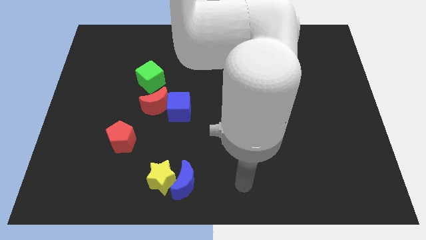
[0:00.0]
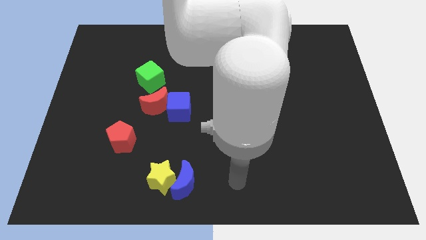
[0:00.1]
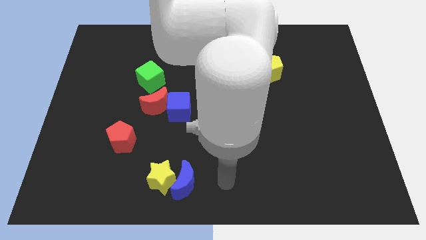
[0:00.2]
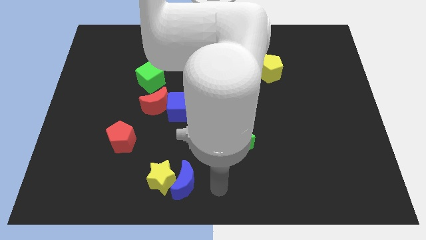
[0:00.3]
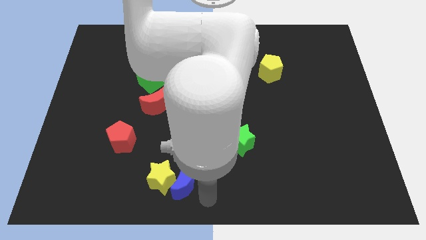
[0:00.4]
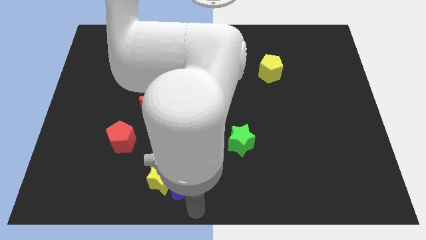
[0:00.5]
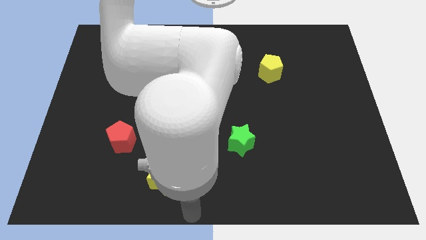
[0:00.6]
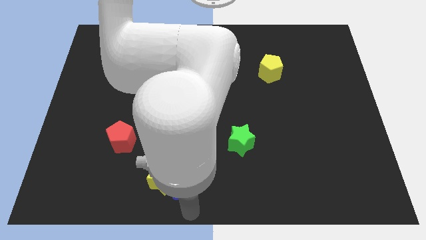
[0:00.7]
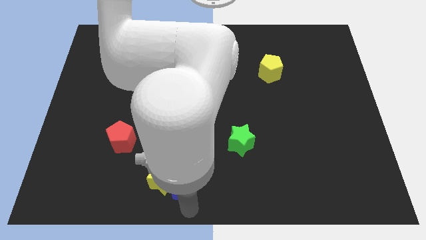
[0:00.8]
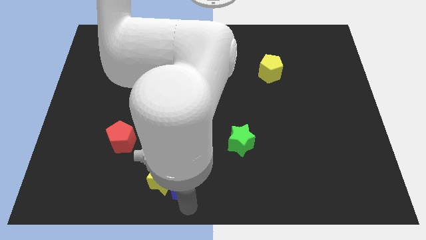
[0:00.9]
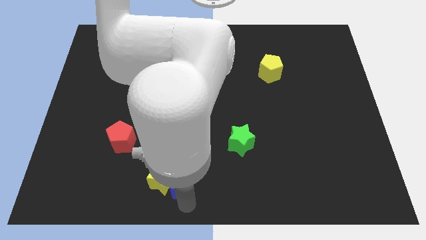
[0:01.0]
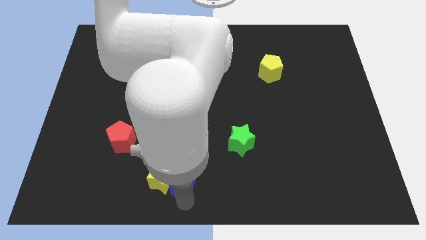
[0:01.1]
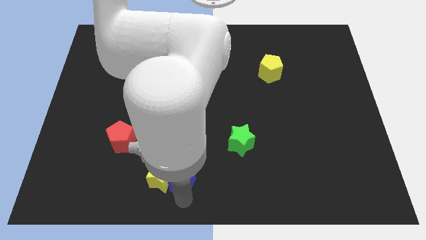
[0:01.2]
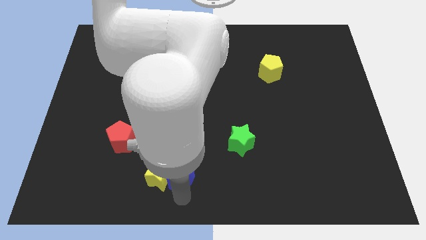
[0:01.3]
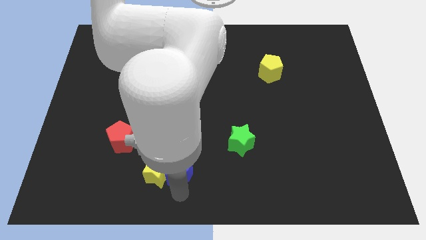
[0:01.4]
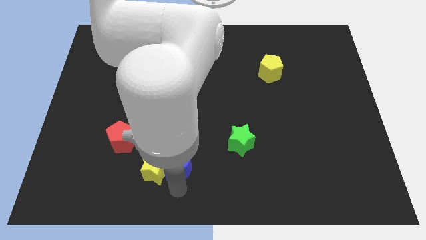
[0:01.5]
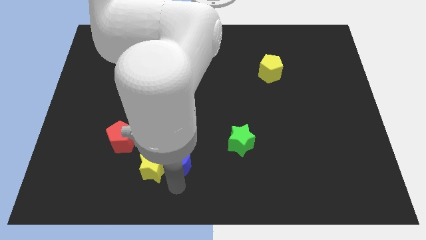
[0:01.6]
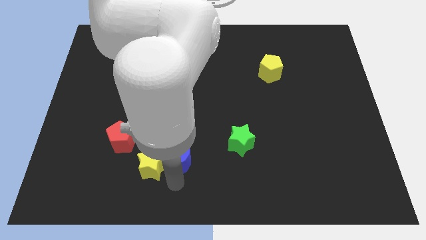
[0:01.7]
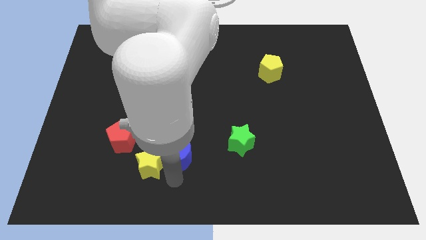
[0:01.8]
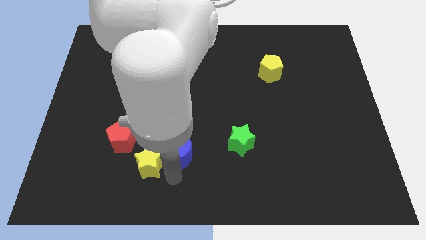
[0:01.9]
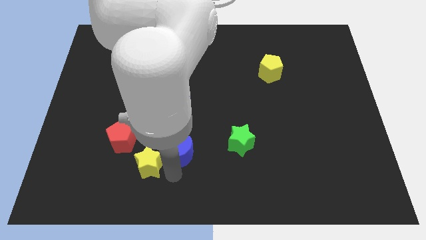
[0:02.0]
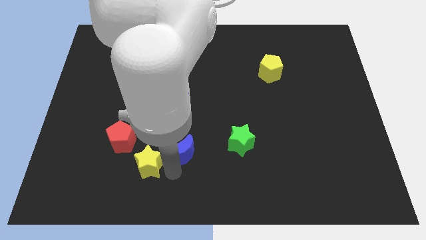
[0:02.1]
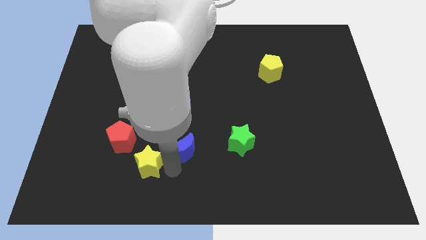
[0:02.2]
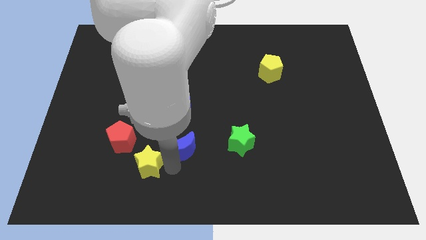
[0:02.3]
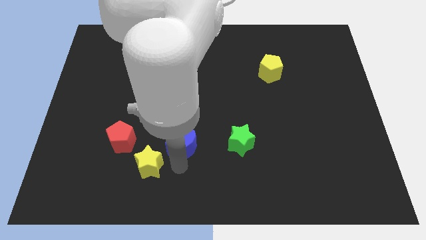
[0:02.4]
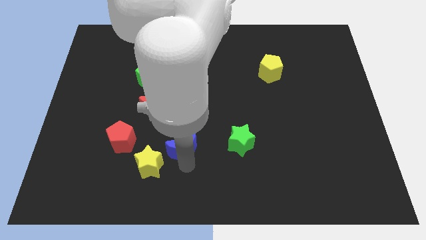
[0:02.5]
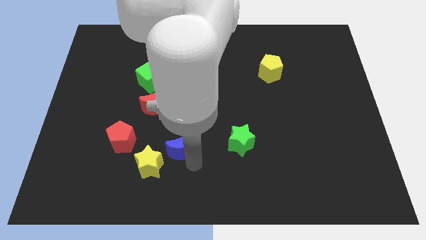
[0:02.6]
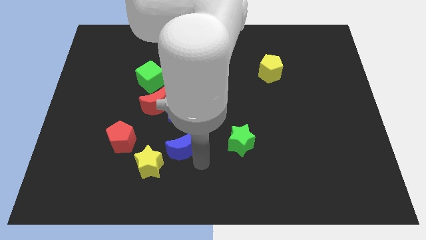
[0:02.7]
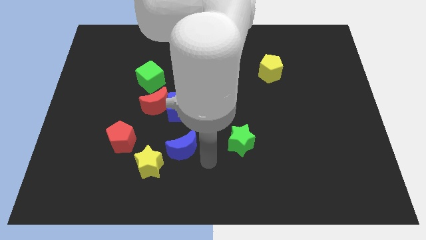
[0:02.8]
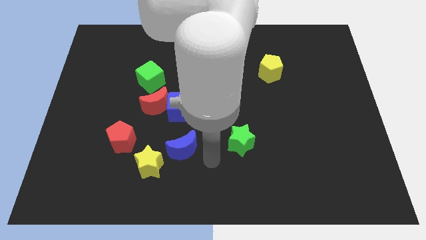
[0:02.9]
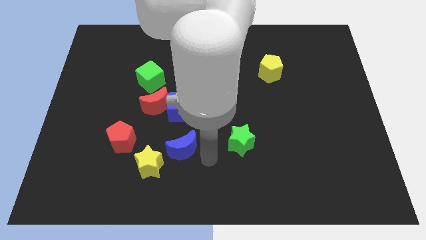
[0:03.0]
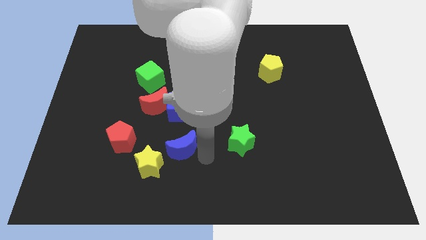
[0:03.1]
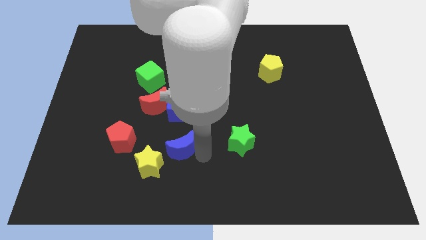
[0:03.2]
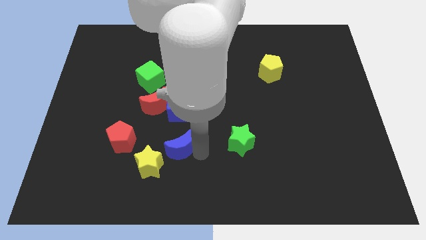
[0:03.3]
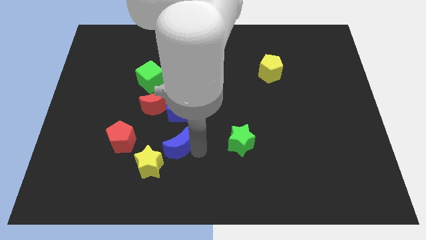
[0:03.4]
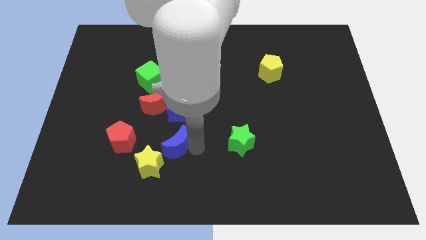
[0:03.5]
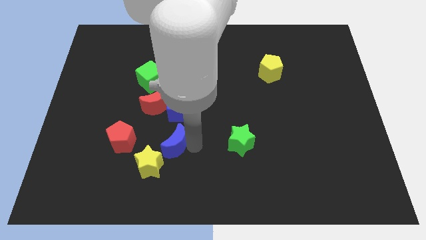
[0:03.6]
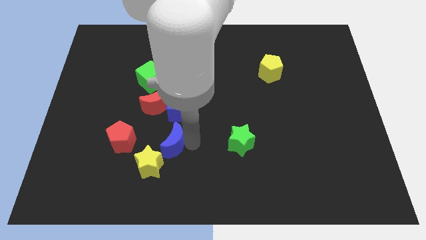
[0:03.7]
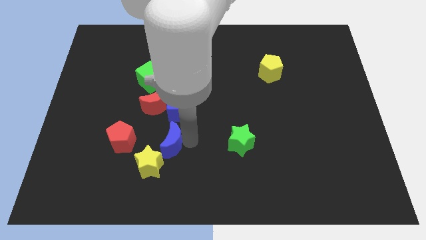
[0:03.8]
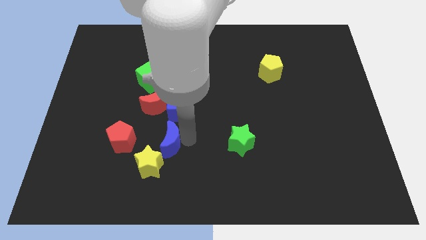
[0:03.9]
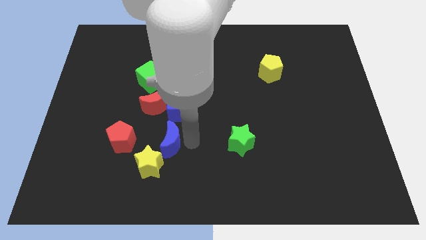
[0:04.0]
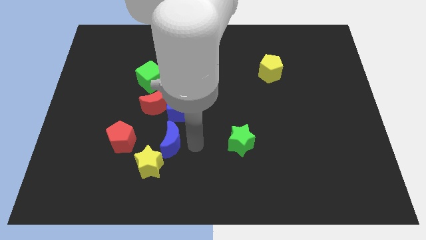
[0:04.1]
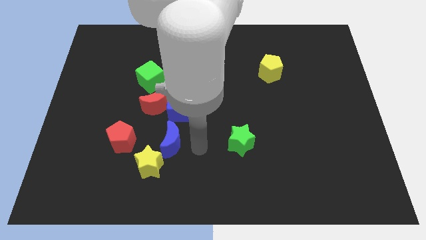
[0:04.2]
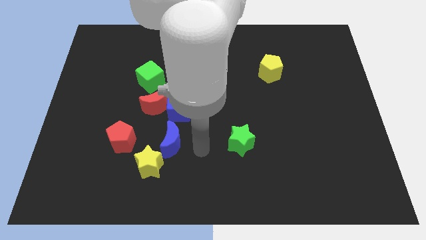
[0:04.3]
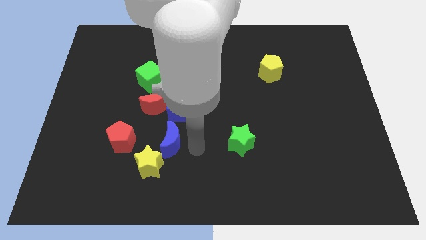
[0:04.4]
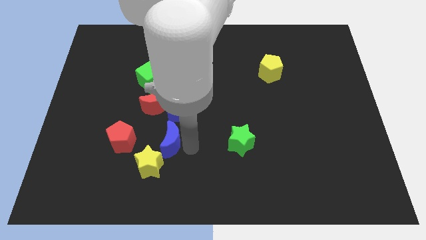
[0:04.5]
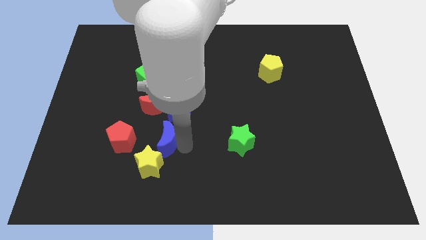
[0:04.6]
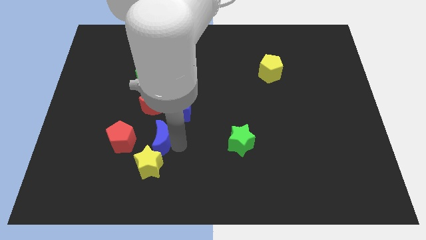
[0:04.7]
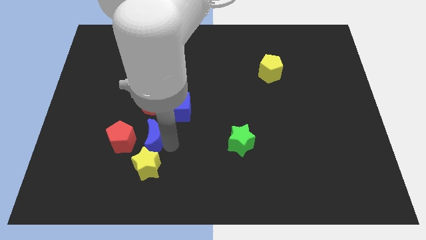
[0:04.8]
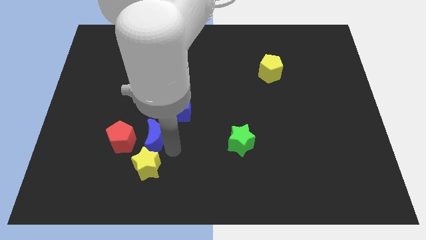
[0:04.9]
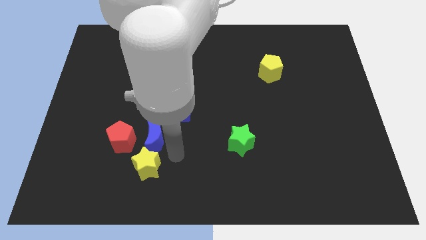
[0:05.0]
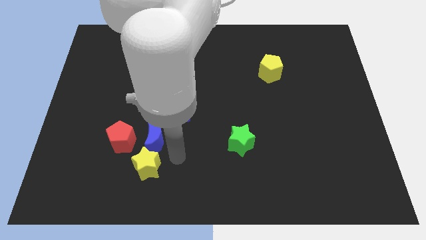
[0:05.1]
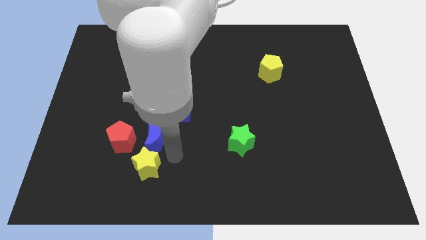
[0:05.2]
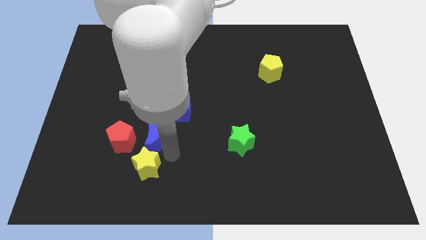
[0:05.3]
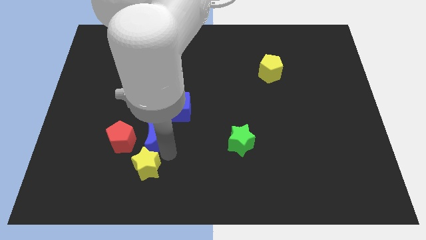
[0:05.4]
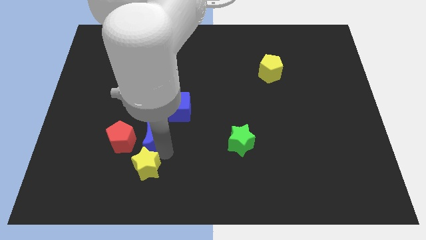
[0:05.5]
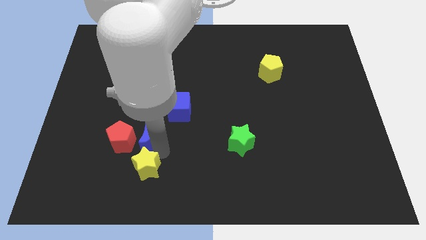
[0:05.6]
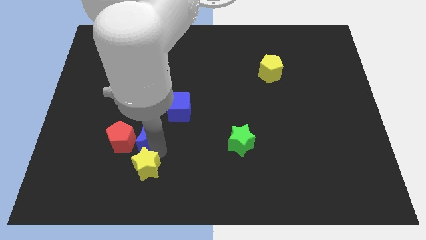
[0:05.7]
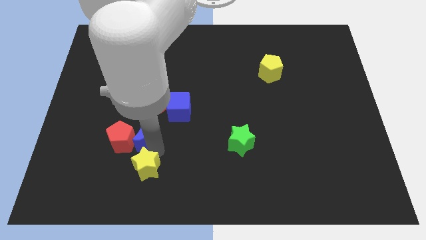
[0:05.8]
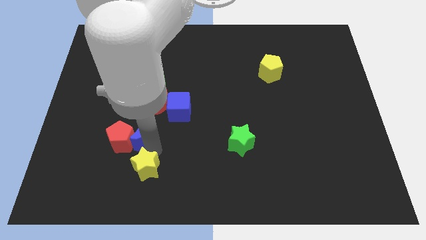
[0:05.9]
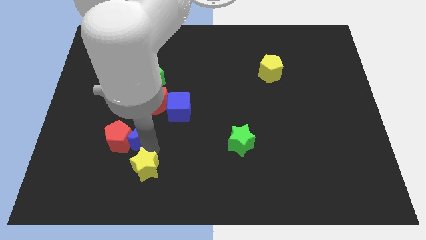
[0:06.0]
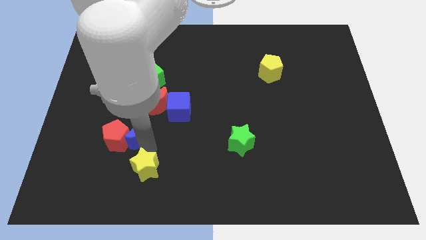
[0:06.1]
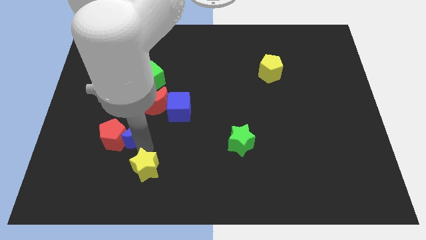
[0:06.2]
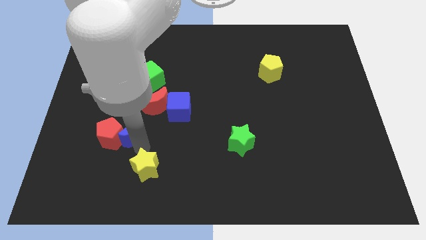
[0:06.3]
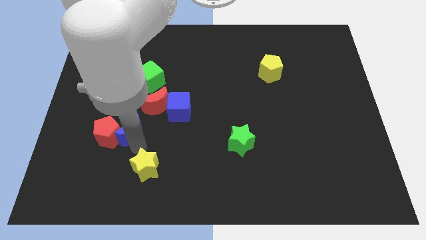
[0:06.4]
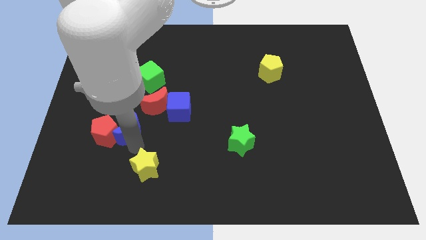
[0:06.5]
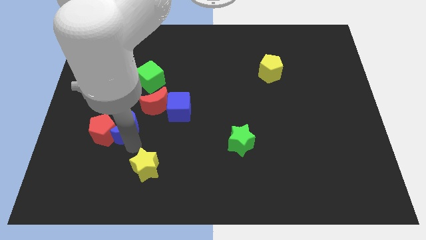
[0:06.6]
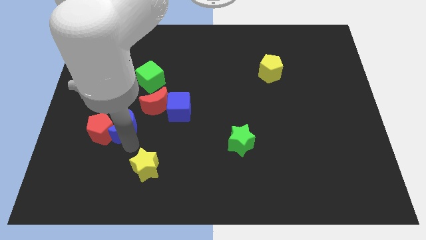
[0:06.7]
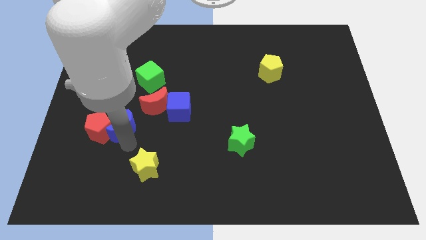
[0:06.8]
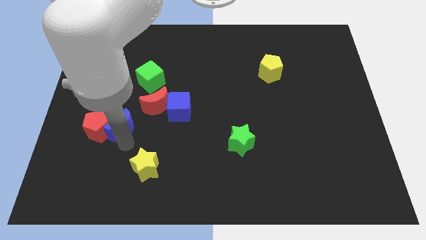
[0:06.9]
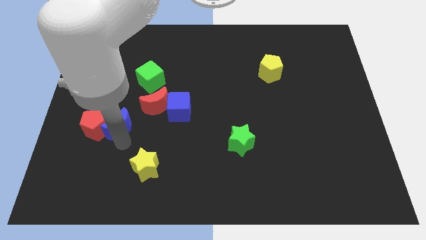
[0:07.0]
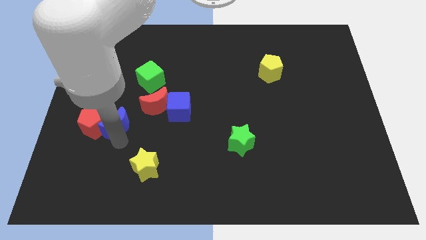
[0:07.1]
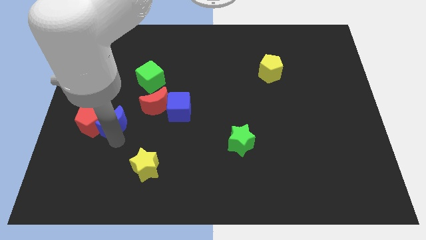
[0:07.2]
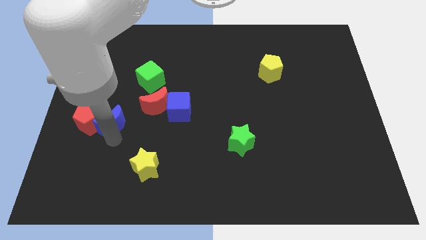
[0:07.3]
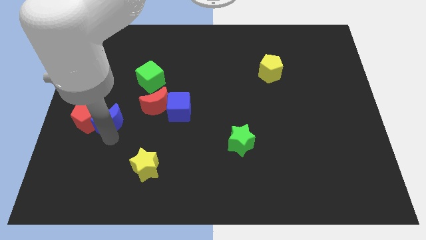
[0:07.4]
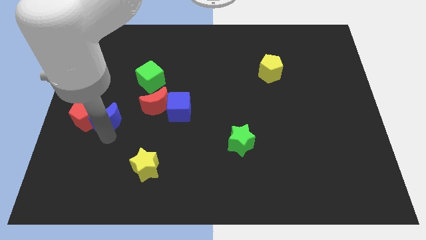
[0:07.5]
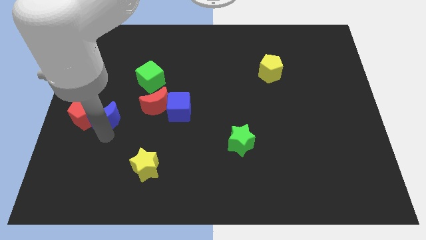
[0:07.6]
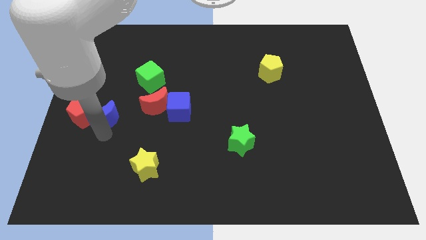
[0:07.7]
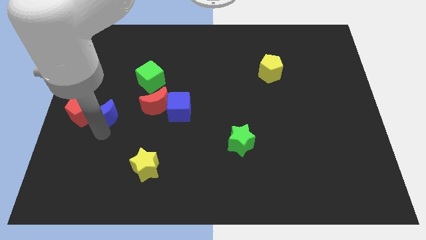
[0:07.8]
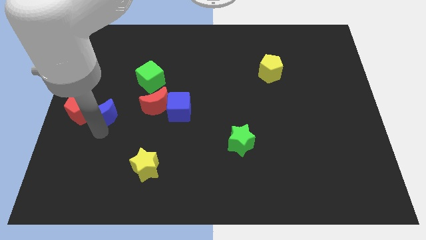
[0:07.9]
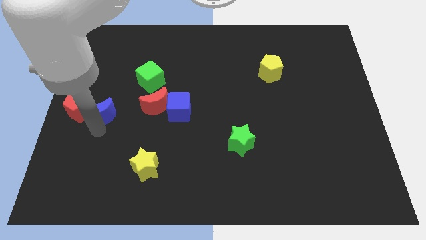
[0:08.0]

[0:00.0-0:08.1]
slide the blue moon to the left side of the board
